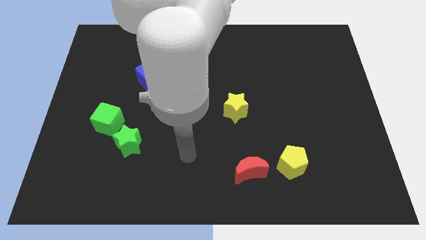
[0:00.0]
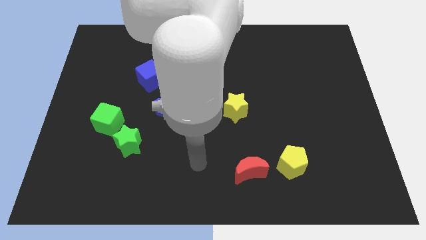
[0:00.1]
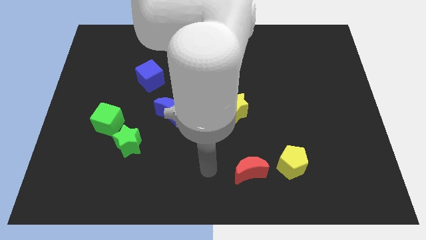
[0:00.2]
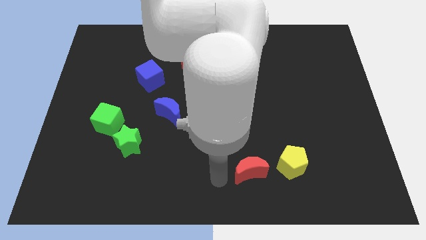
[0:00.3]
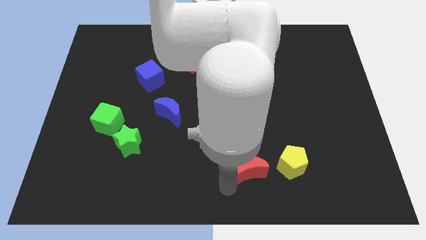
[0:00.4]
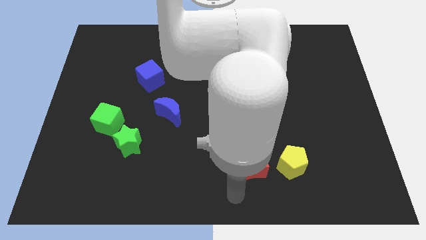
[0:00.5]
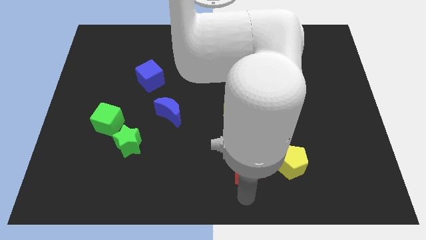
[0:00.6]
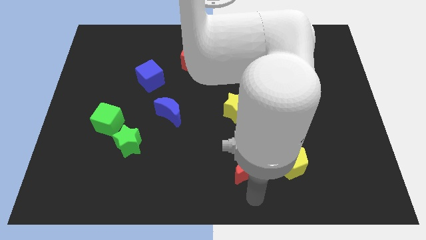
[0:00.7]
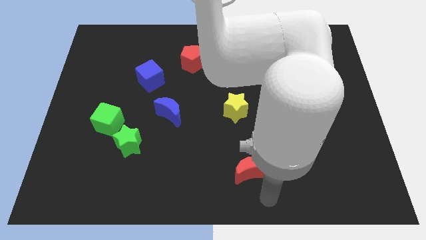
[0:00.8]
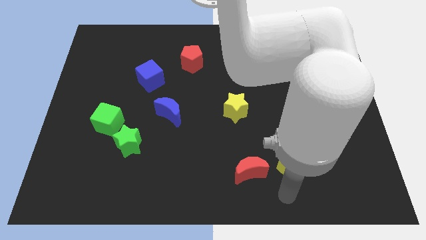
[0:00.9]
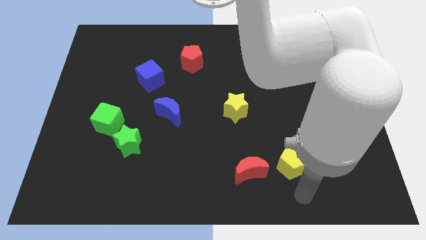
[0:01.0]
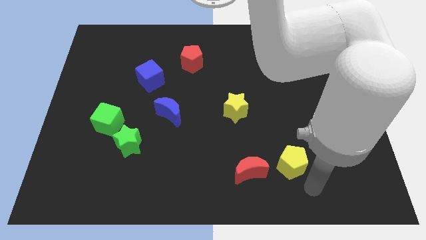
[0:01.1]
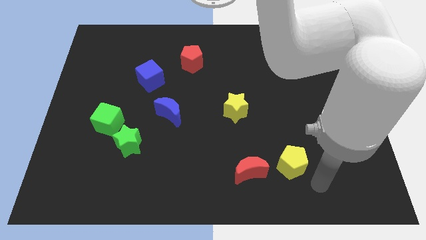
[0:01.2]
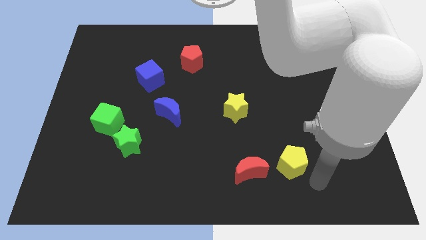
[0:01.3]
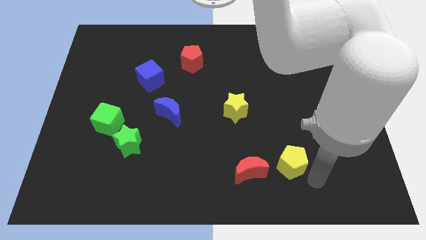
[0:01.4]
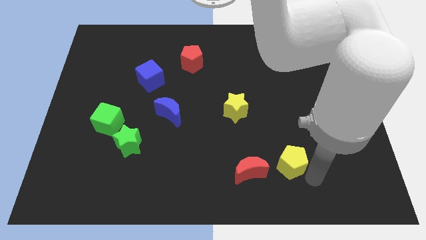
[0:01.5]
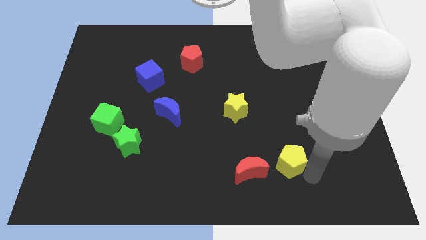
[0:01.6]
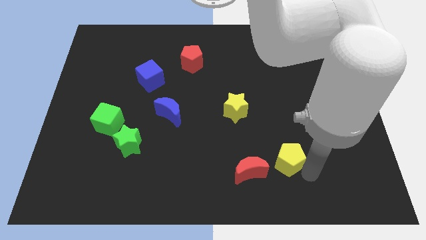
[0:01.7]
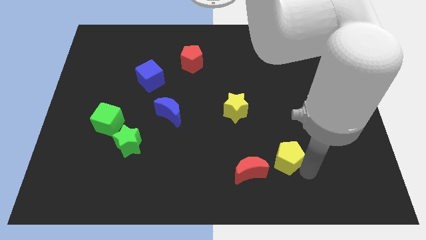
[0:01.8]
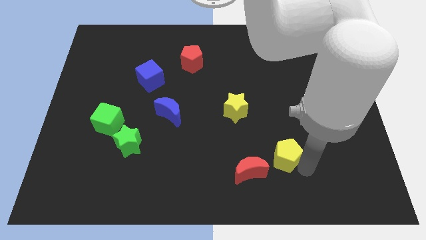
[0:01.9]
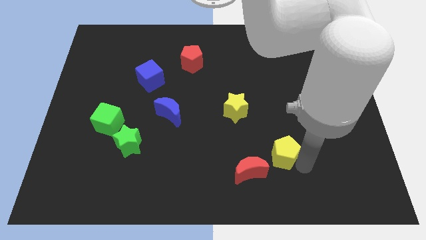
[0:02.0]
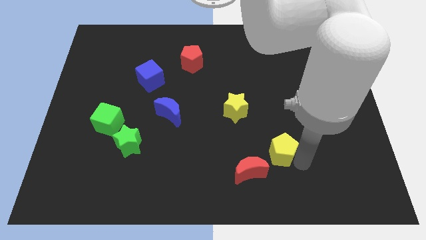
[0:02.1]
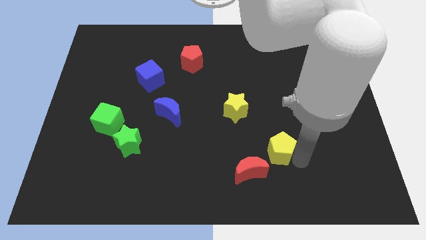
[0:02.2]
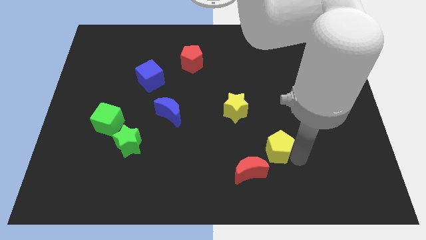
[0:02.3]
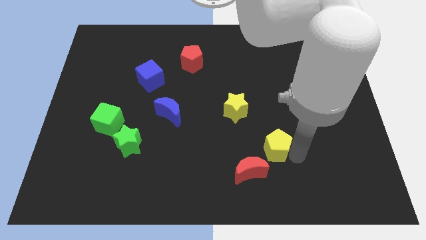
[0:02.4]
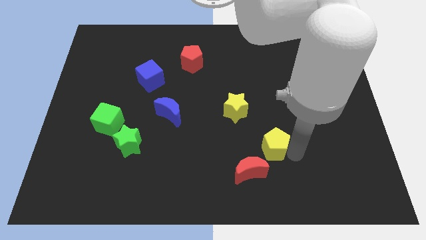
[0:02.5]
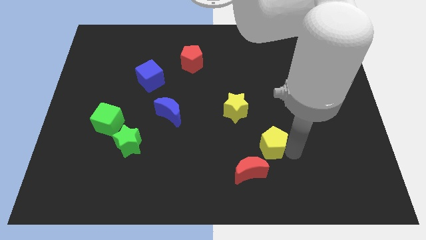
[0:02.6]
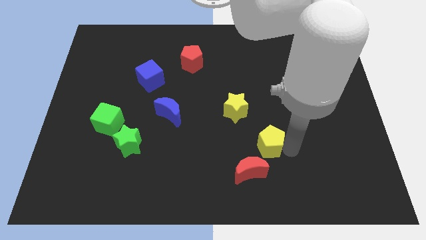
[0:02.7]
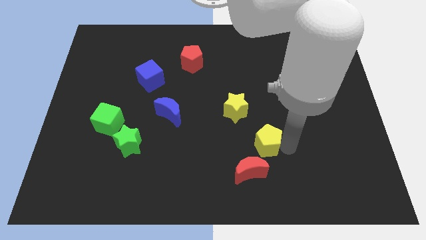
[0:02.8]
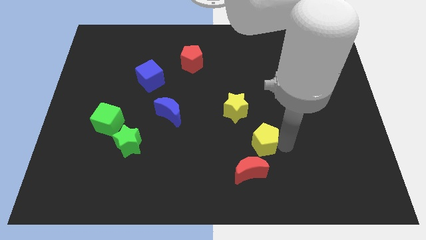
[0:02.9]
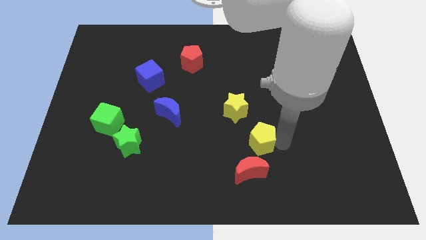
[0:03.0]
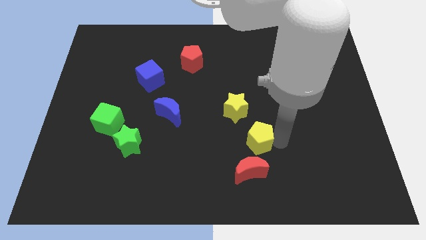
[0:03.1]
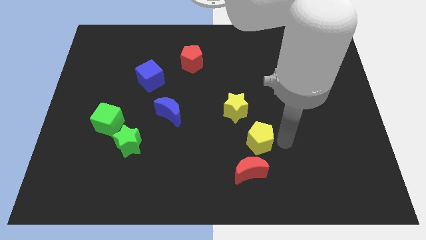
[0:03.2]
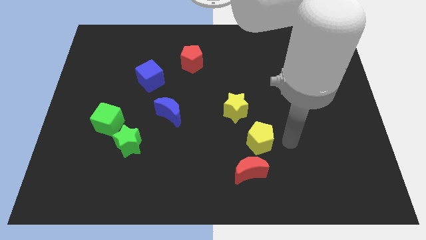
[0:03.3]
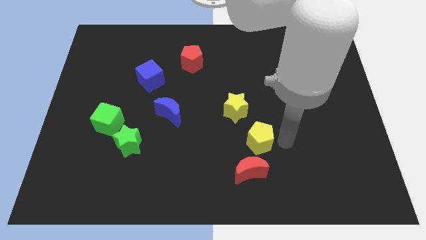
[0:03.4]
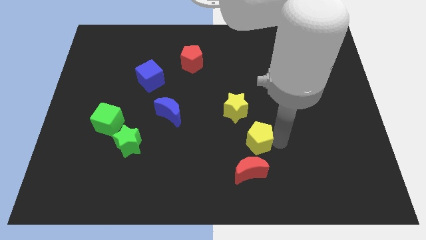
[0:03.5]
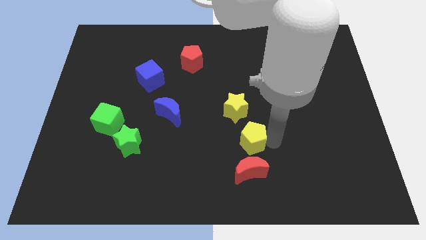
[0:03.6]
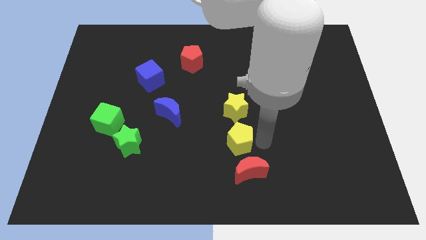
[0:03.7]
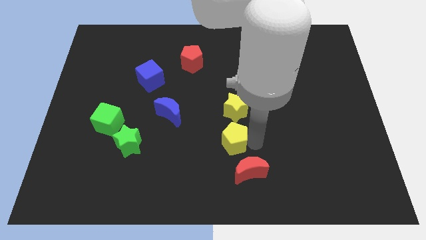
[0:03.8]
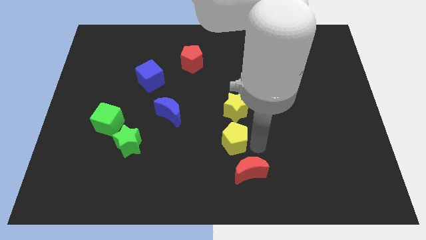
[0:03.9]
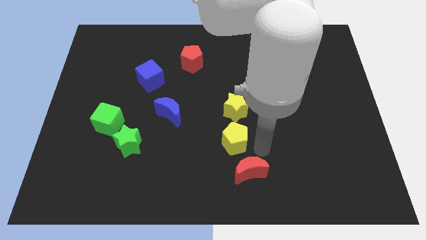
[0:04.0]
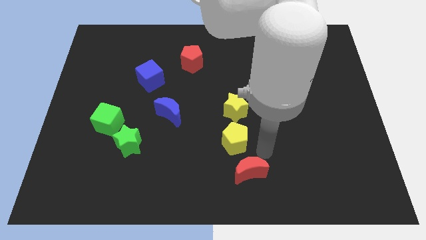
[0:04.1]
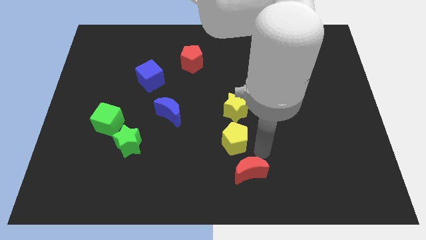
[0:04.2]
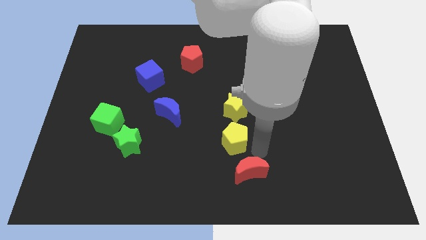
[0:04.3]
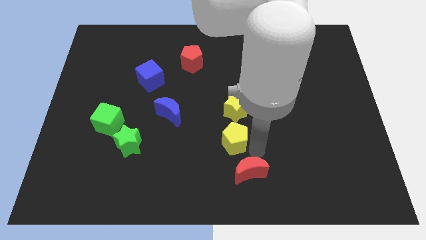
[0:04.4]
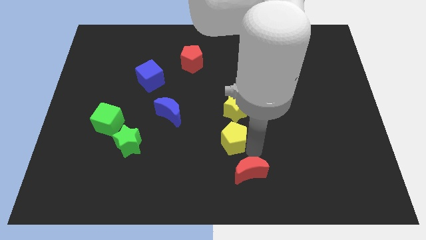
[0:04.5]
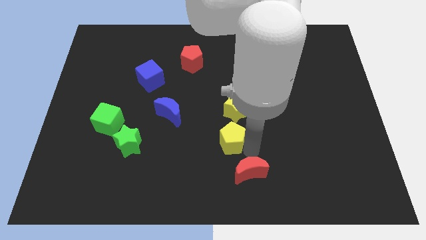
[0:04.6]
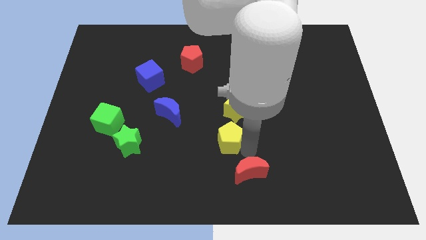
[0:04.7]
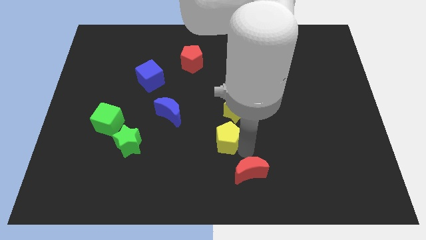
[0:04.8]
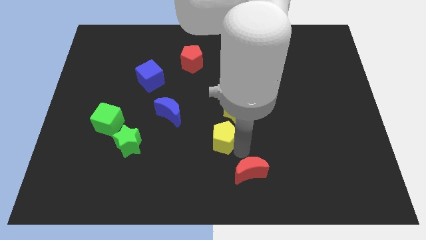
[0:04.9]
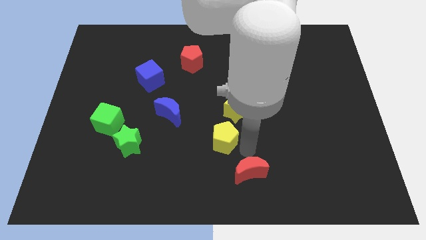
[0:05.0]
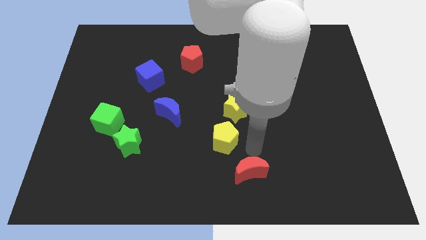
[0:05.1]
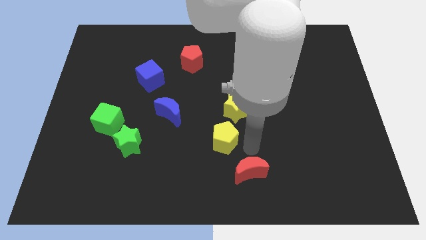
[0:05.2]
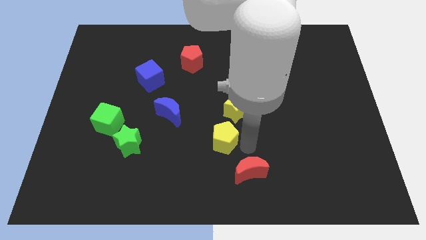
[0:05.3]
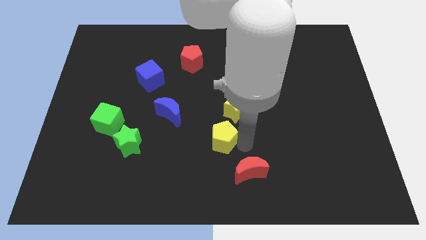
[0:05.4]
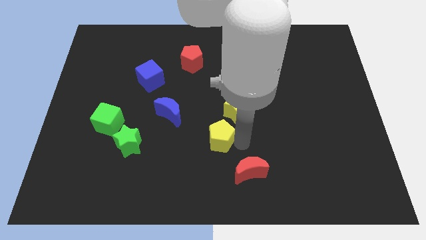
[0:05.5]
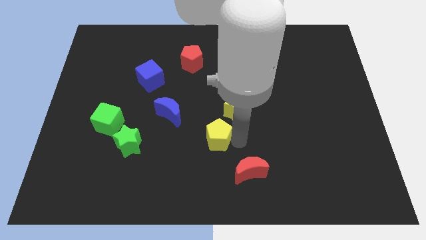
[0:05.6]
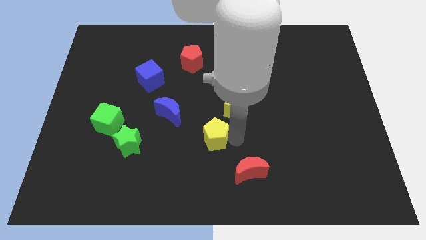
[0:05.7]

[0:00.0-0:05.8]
push the yellow pentagon to the bottom right side of the blue moon

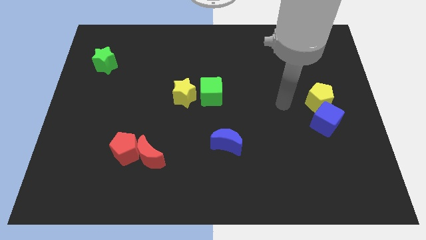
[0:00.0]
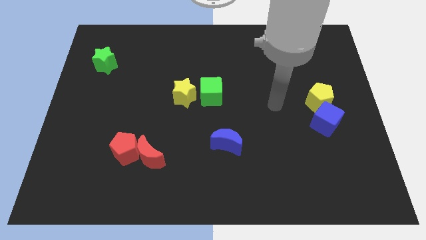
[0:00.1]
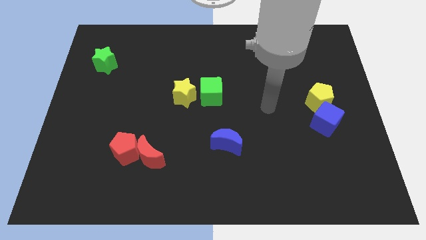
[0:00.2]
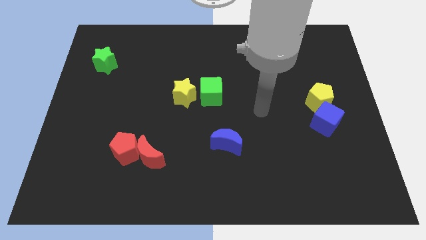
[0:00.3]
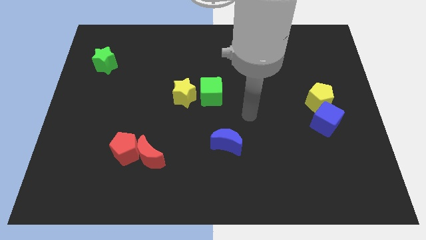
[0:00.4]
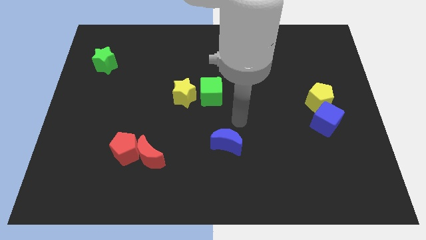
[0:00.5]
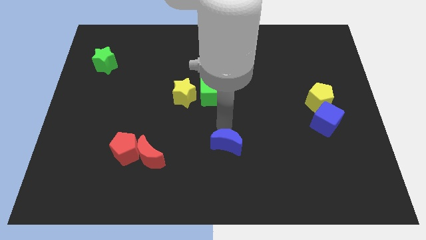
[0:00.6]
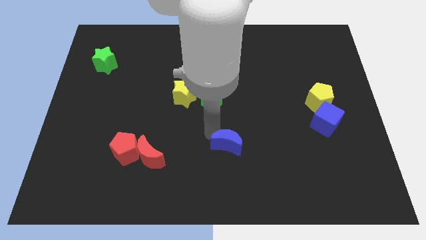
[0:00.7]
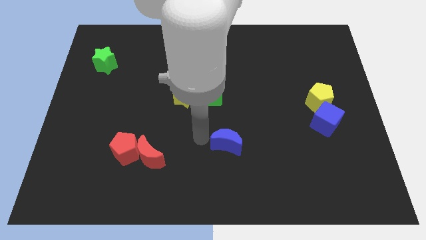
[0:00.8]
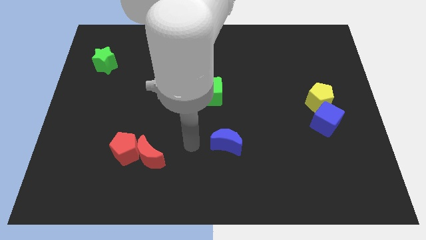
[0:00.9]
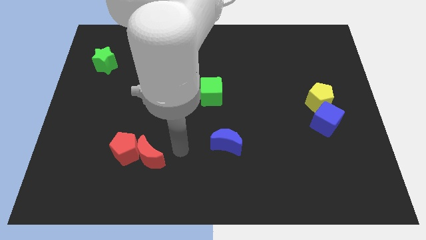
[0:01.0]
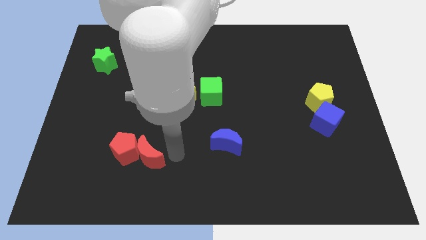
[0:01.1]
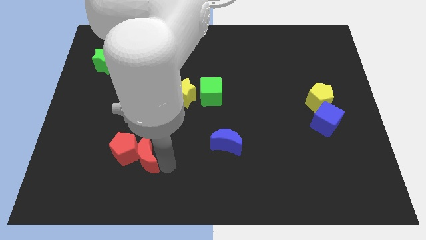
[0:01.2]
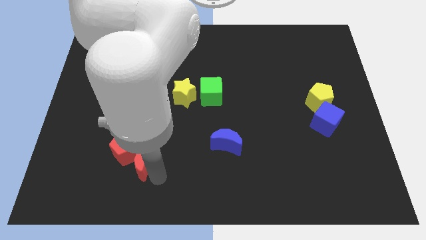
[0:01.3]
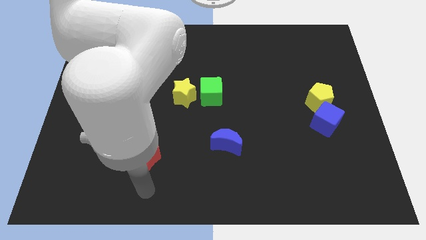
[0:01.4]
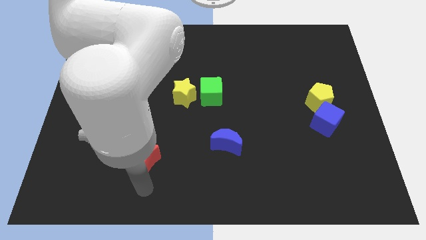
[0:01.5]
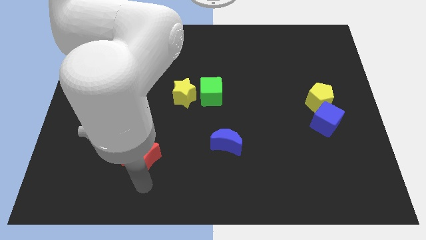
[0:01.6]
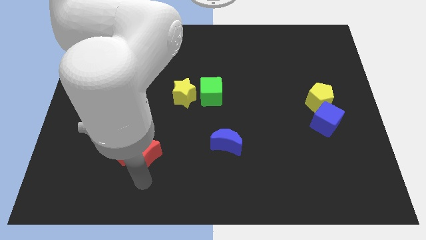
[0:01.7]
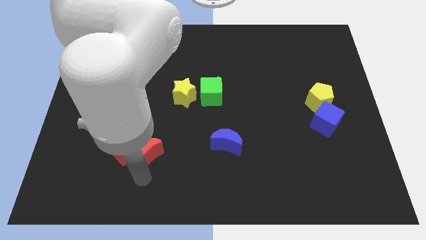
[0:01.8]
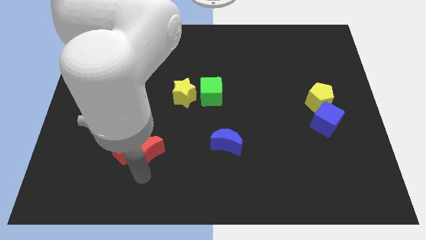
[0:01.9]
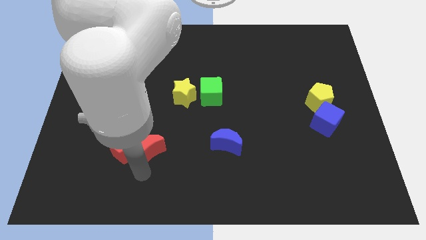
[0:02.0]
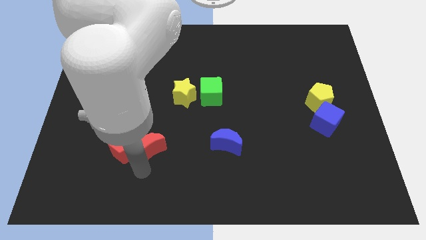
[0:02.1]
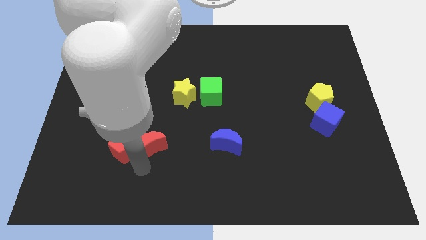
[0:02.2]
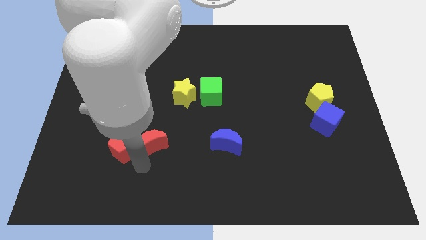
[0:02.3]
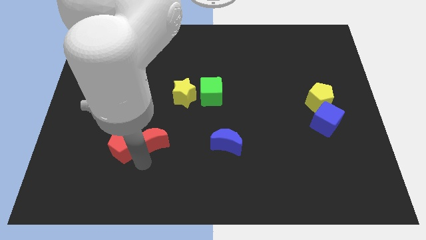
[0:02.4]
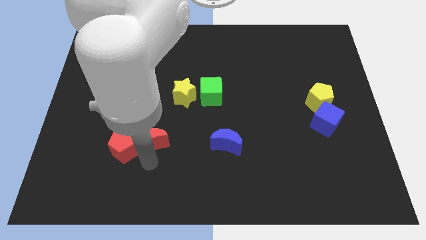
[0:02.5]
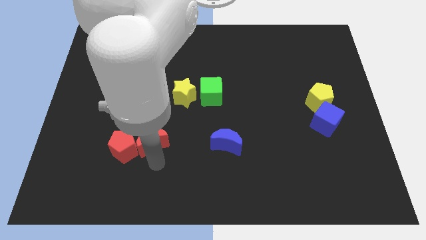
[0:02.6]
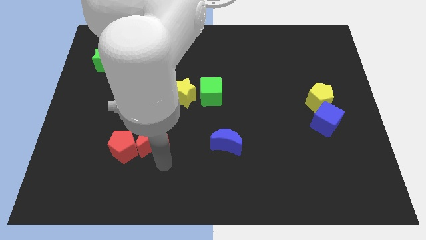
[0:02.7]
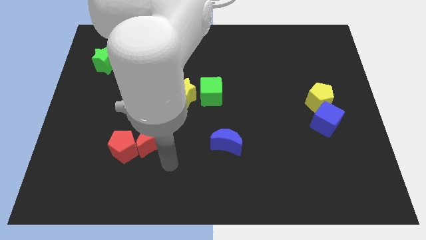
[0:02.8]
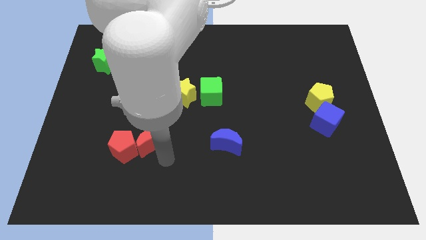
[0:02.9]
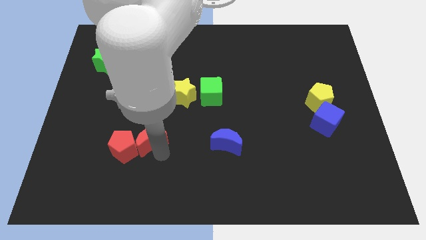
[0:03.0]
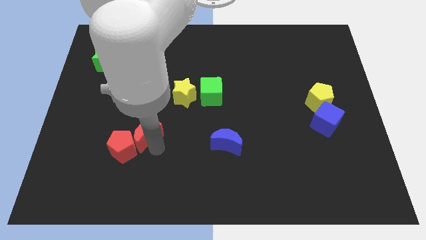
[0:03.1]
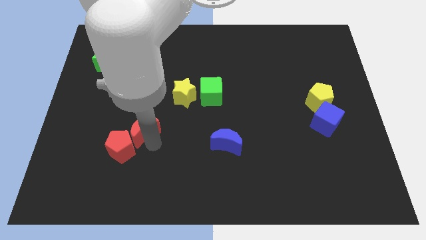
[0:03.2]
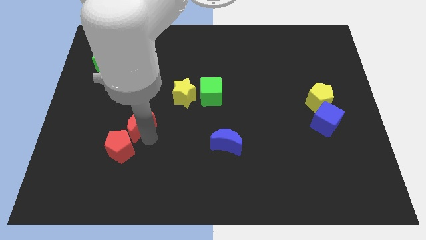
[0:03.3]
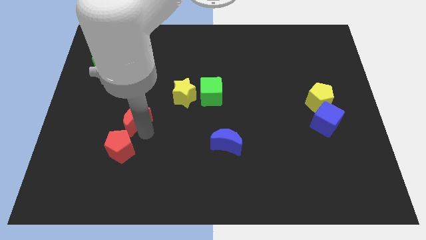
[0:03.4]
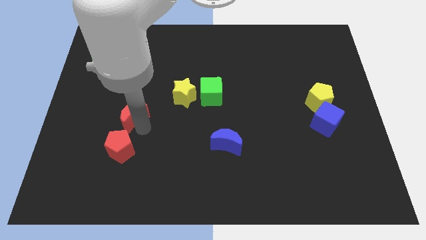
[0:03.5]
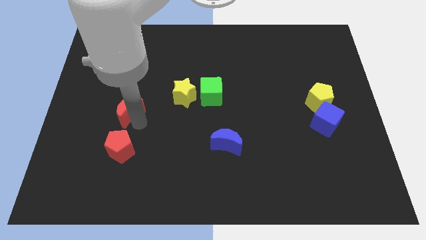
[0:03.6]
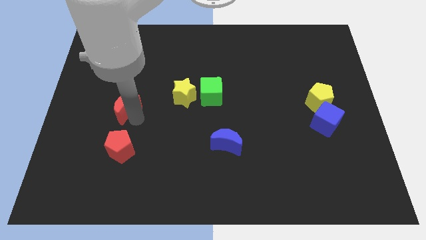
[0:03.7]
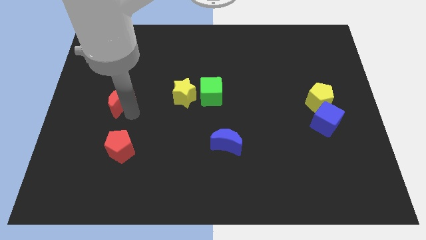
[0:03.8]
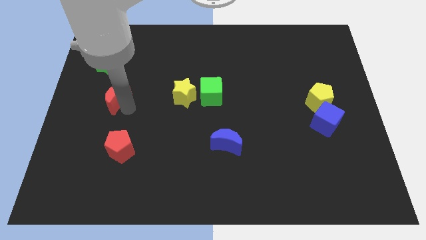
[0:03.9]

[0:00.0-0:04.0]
push the red moon to the bottom of the green star
